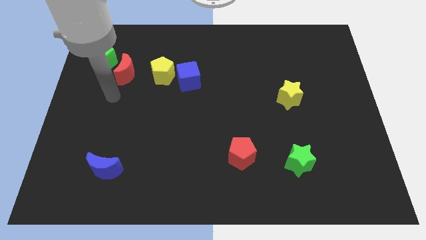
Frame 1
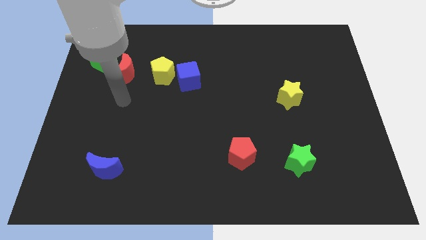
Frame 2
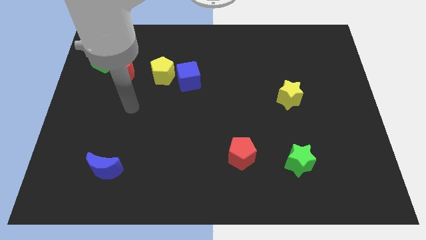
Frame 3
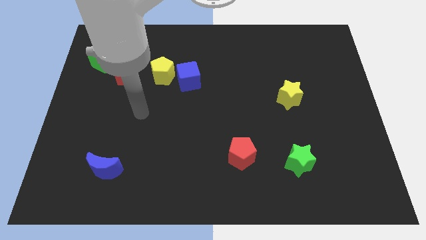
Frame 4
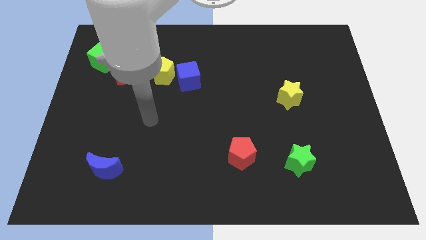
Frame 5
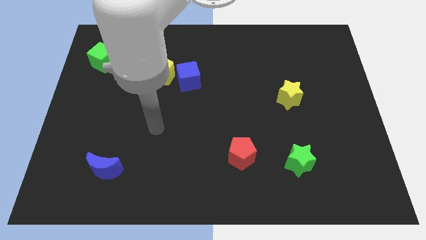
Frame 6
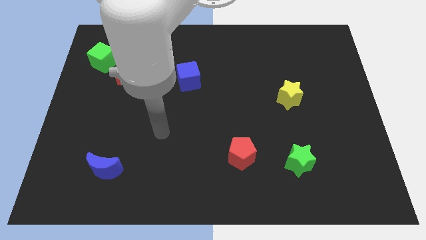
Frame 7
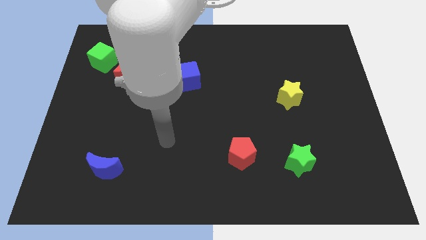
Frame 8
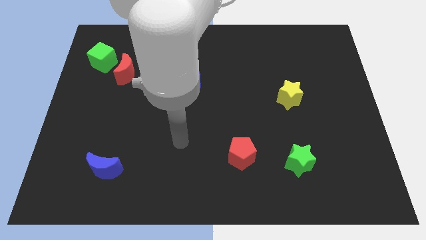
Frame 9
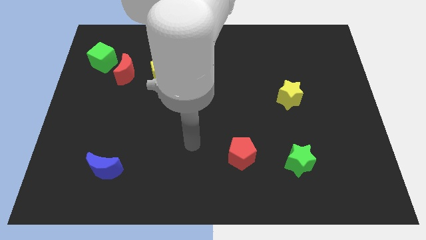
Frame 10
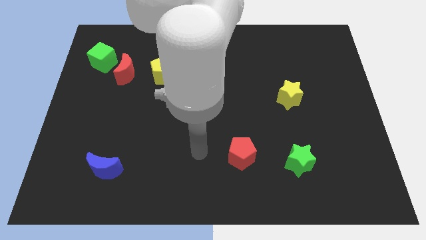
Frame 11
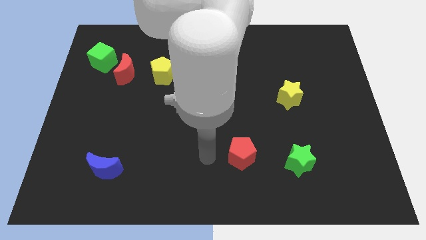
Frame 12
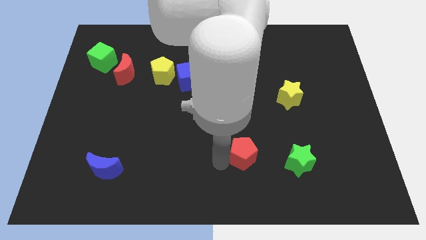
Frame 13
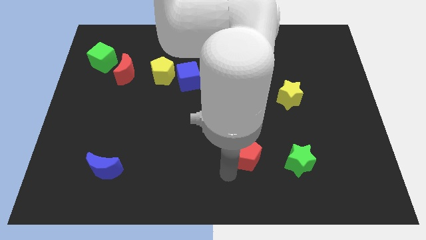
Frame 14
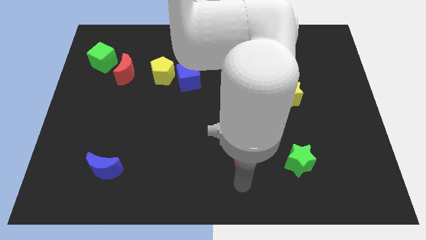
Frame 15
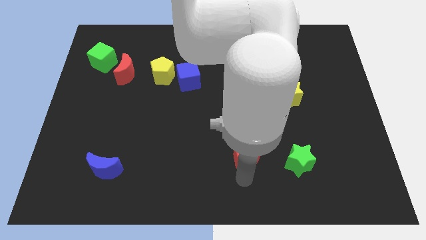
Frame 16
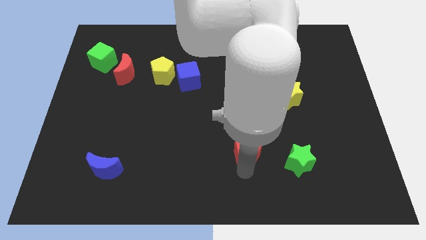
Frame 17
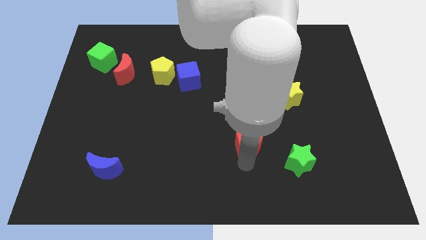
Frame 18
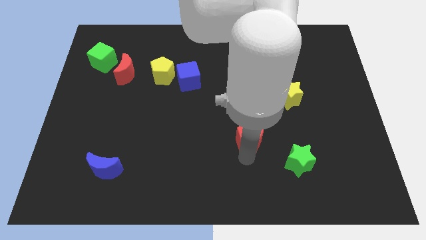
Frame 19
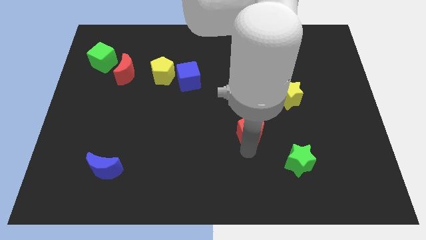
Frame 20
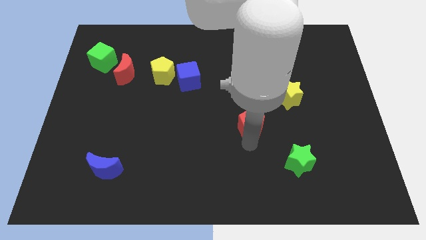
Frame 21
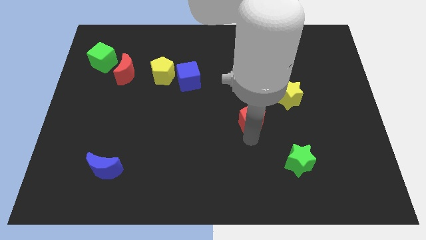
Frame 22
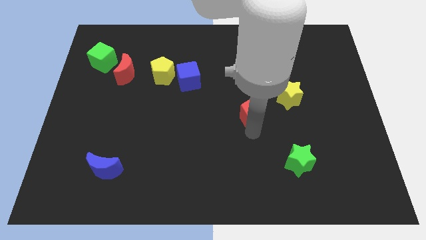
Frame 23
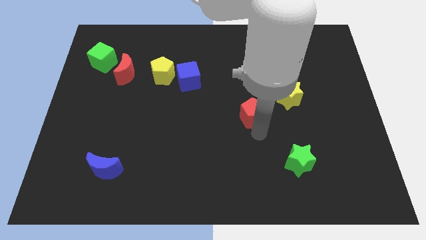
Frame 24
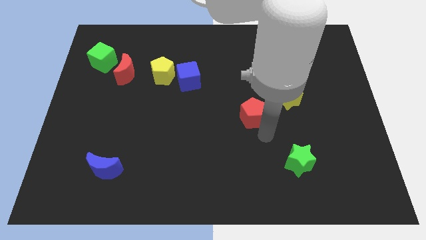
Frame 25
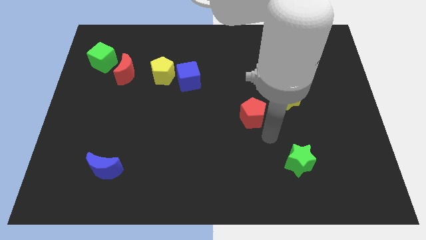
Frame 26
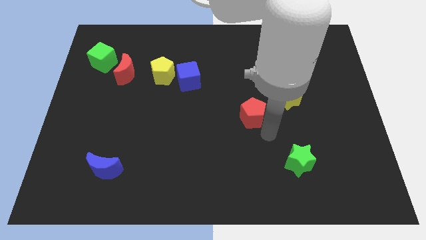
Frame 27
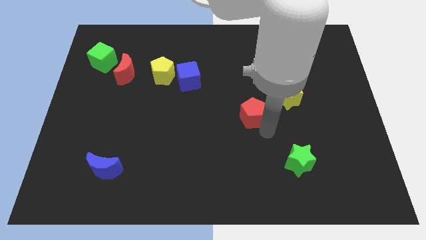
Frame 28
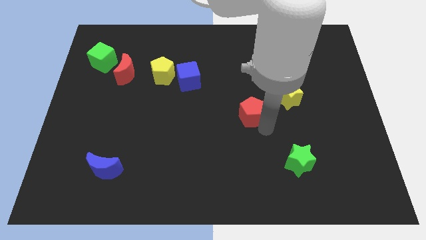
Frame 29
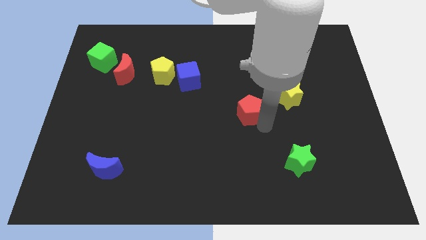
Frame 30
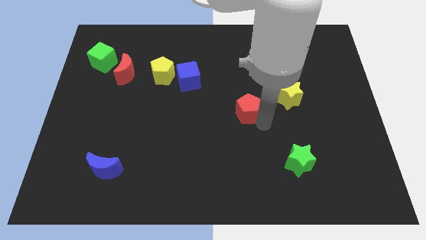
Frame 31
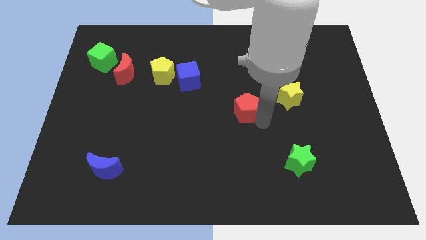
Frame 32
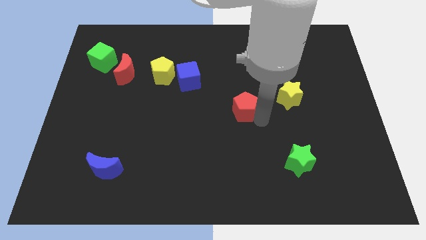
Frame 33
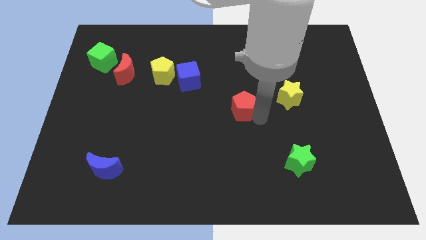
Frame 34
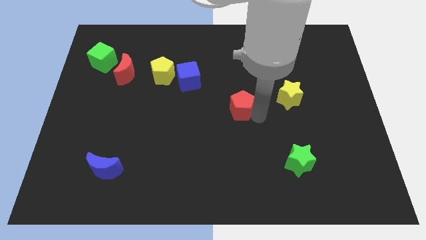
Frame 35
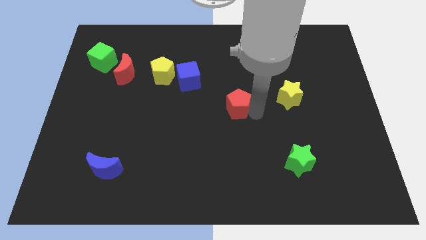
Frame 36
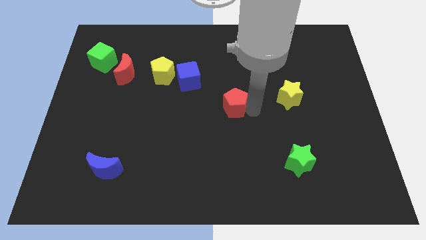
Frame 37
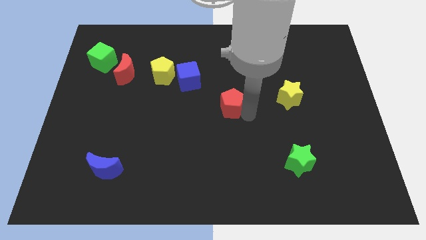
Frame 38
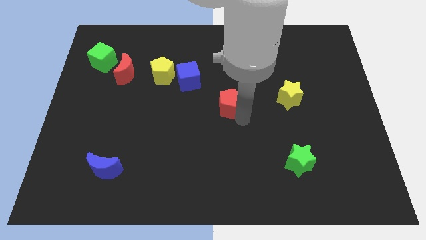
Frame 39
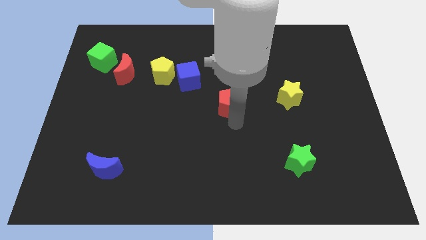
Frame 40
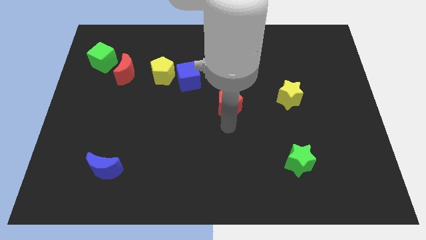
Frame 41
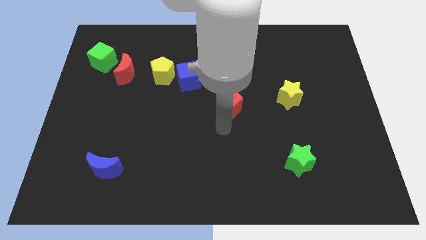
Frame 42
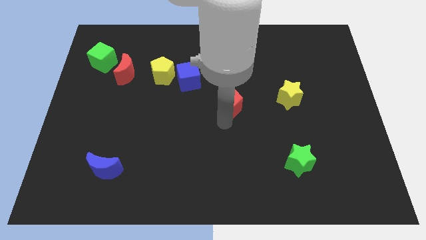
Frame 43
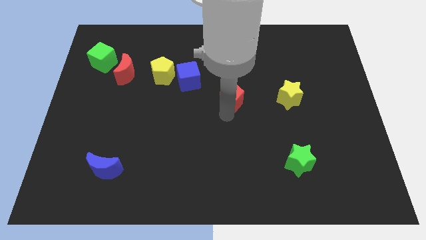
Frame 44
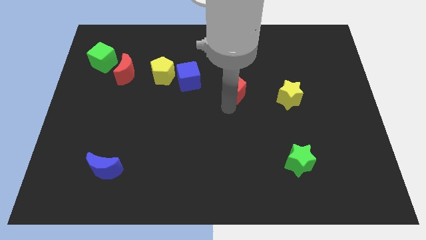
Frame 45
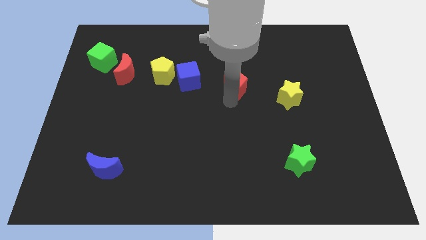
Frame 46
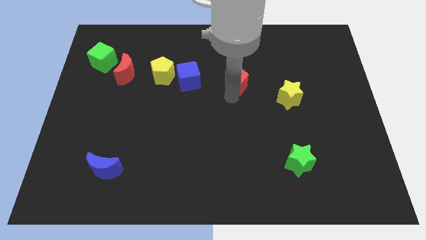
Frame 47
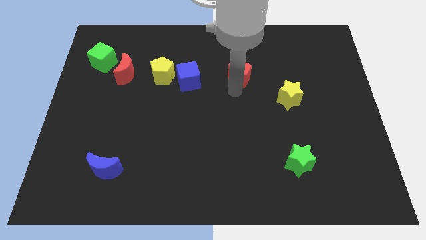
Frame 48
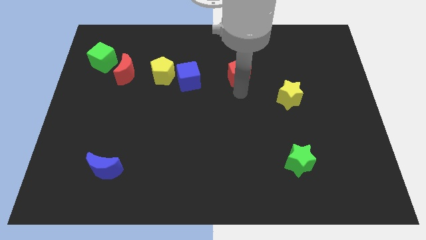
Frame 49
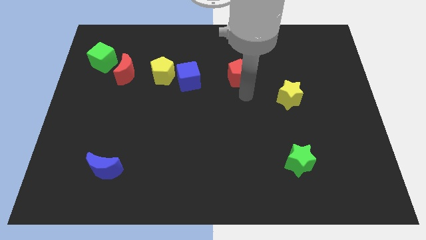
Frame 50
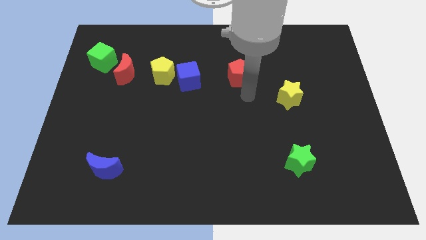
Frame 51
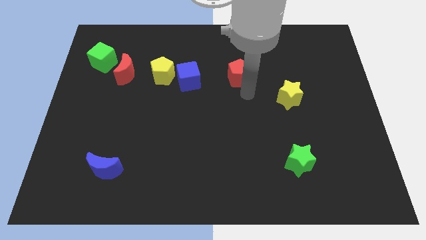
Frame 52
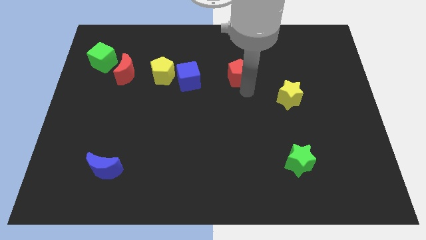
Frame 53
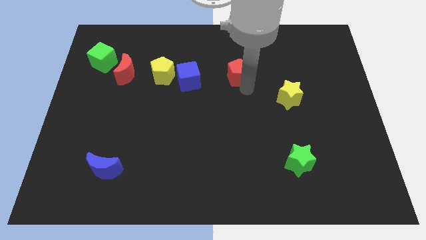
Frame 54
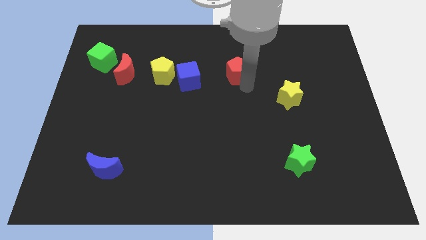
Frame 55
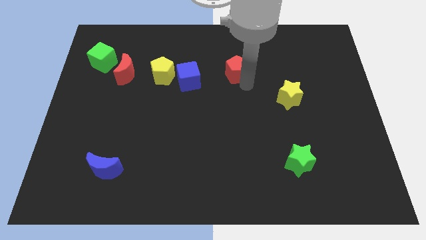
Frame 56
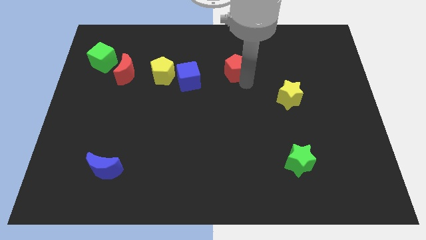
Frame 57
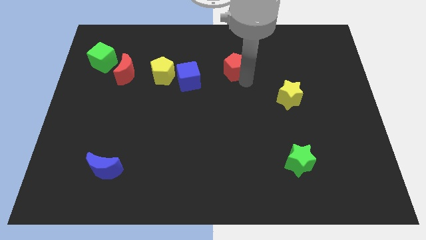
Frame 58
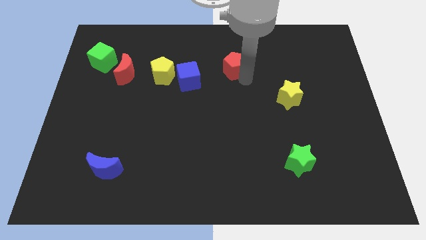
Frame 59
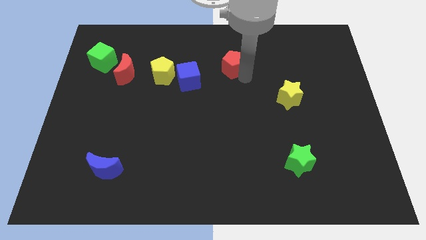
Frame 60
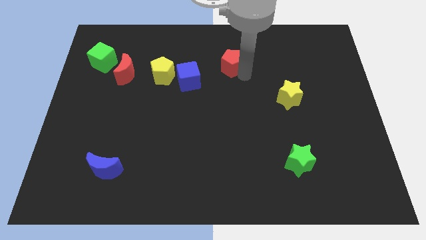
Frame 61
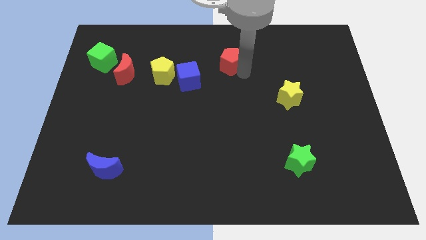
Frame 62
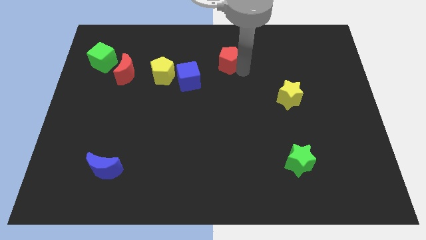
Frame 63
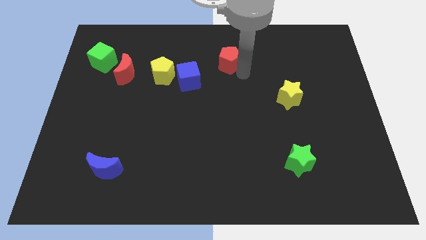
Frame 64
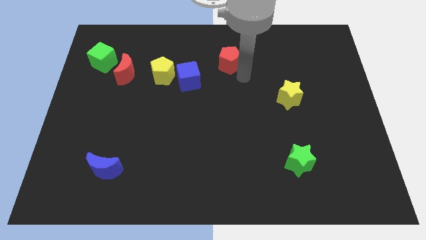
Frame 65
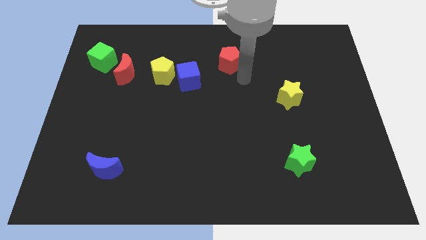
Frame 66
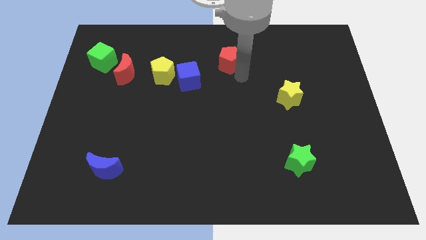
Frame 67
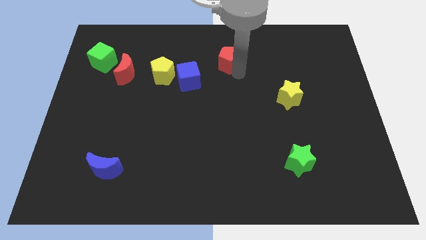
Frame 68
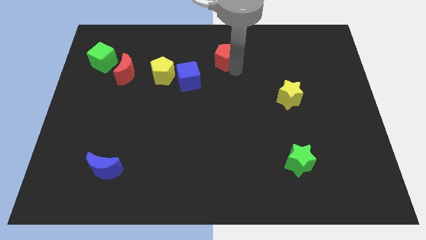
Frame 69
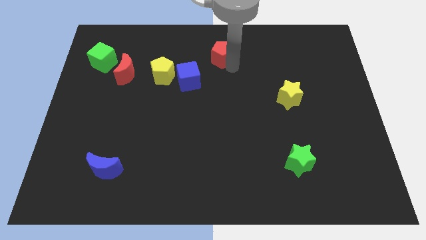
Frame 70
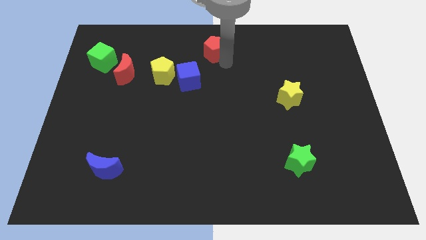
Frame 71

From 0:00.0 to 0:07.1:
move the red pentagon to the top side

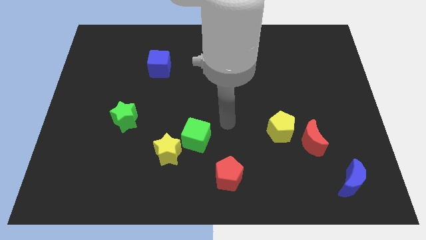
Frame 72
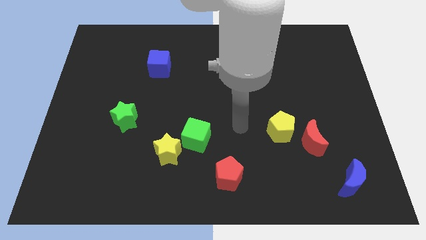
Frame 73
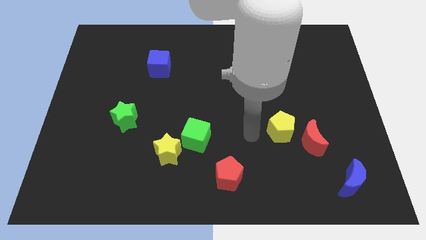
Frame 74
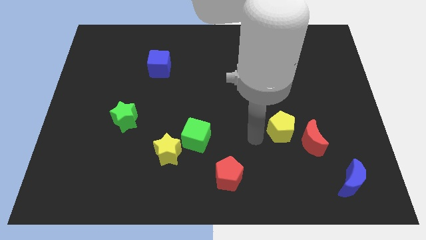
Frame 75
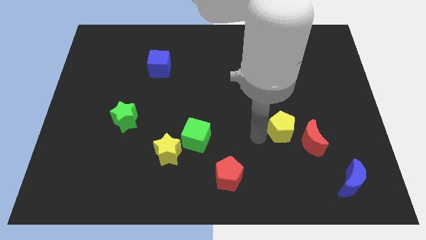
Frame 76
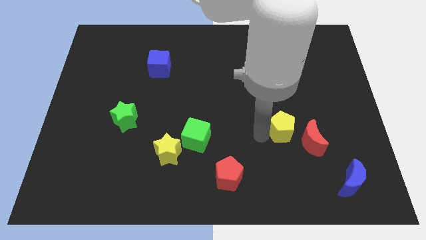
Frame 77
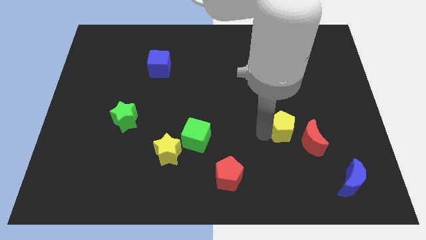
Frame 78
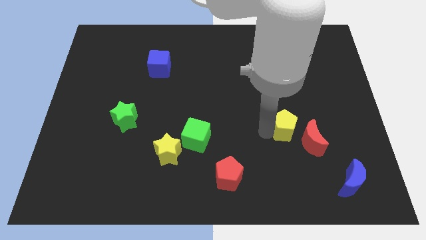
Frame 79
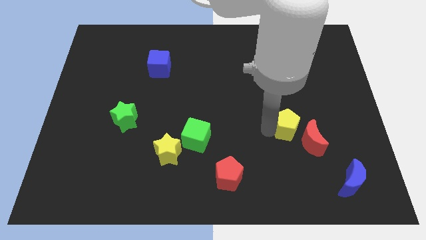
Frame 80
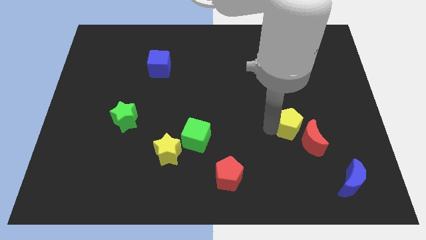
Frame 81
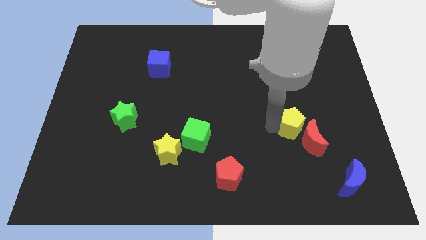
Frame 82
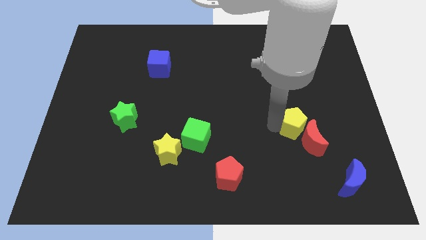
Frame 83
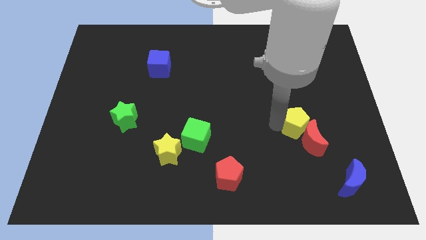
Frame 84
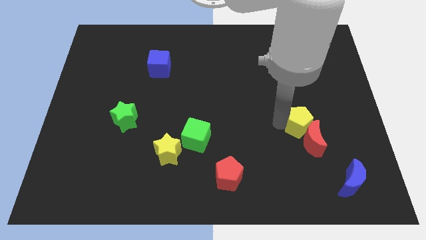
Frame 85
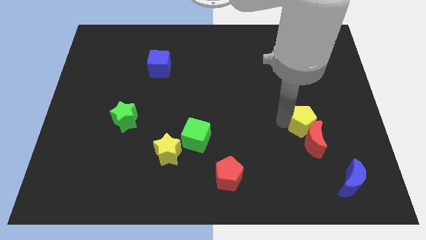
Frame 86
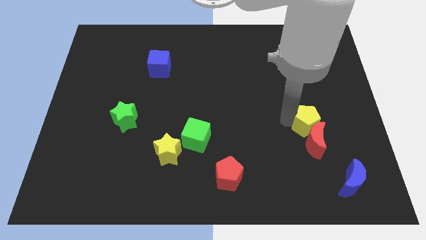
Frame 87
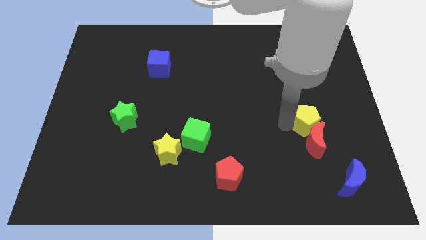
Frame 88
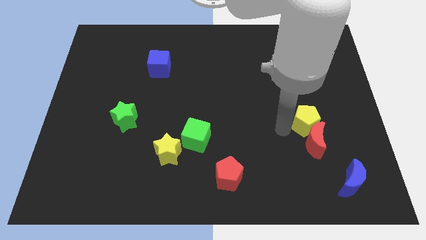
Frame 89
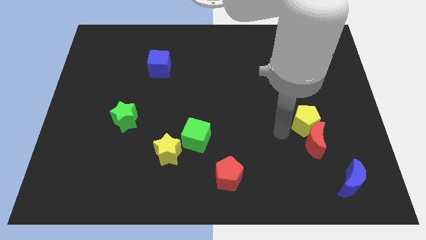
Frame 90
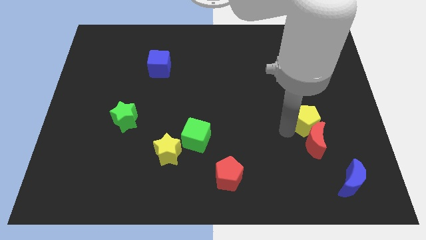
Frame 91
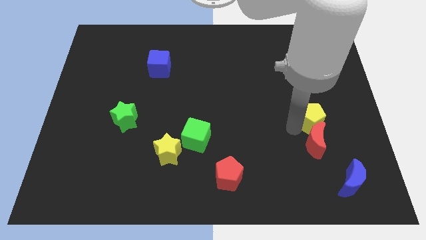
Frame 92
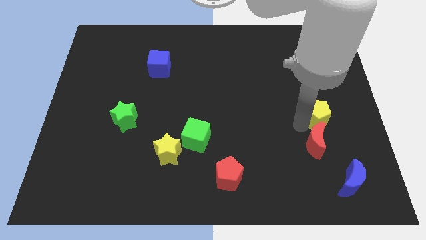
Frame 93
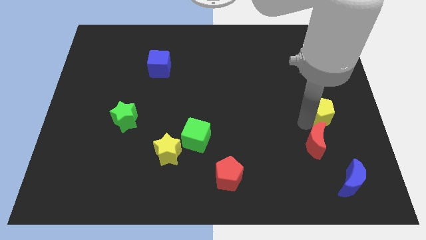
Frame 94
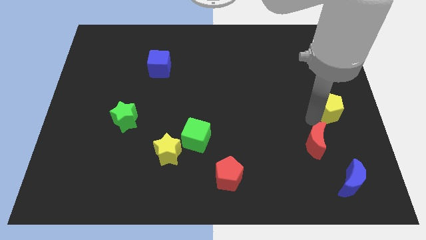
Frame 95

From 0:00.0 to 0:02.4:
push the yellow pentagon to the right side
